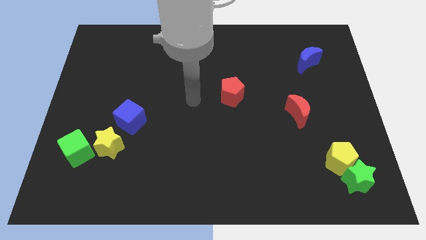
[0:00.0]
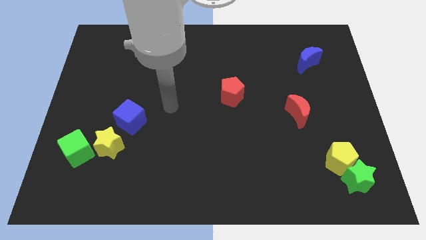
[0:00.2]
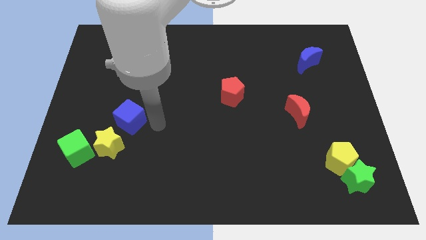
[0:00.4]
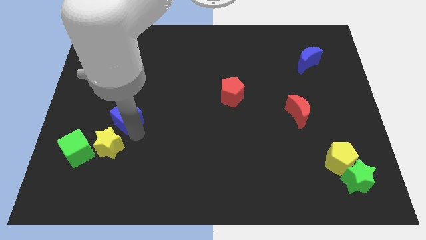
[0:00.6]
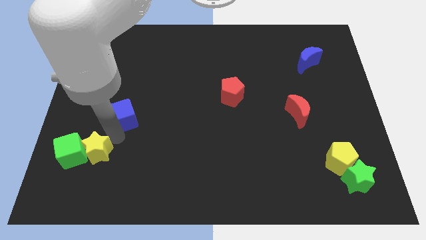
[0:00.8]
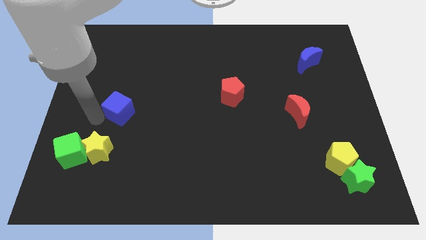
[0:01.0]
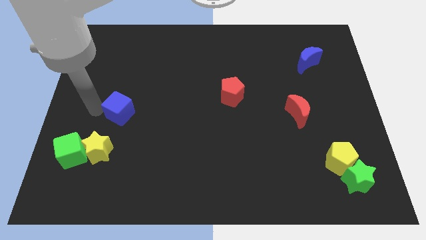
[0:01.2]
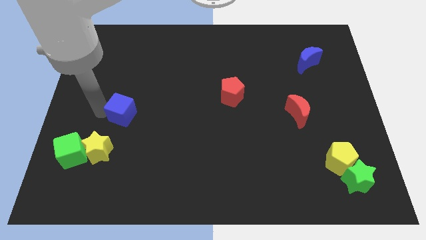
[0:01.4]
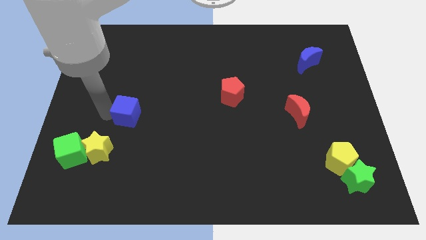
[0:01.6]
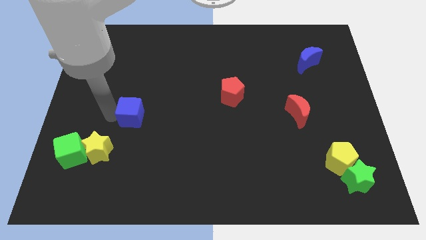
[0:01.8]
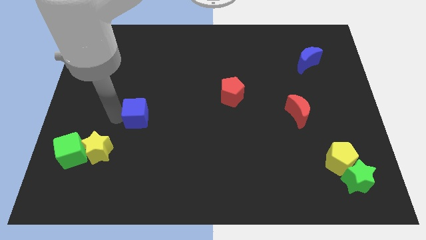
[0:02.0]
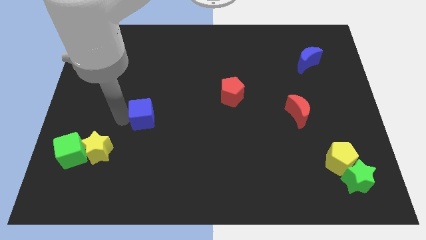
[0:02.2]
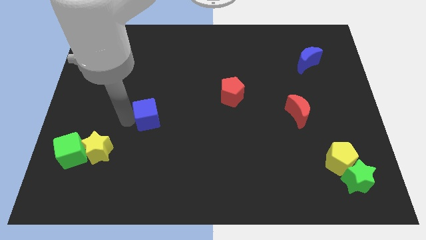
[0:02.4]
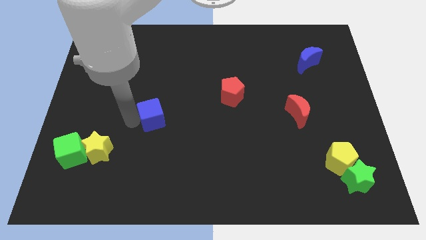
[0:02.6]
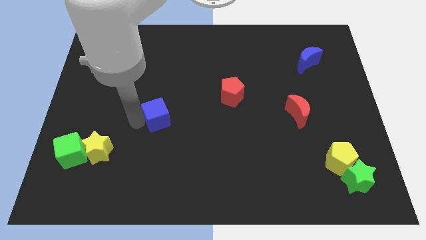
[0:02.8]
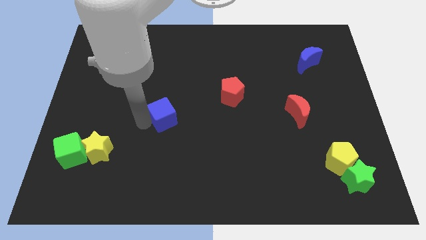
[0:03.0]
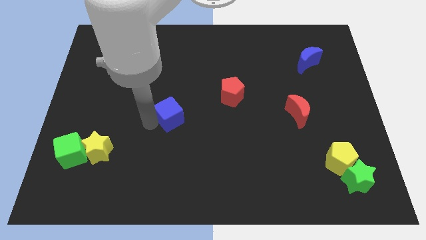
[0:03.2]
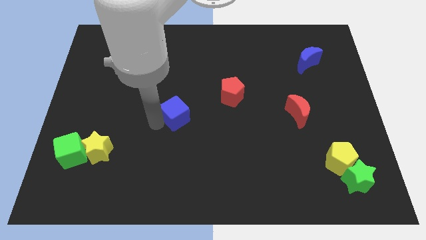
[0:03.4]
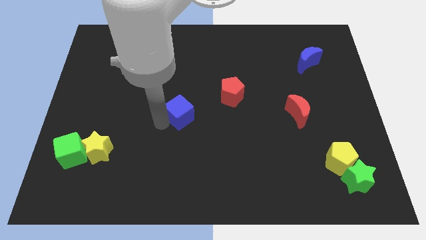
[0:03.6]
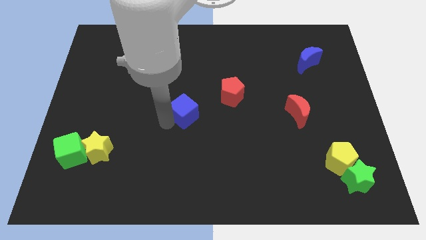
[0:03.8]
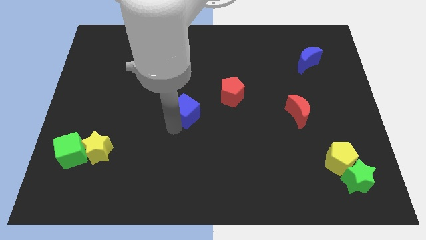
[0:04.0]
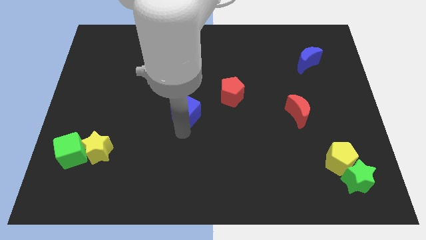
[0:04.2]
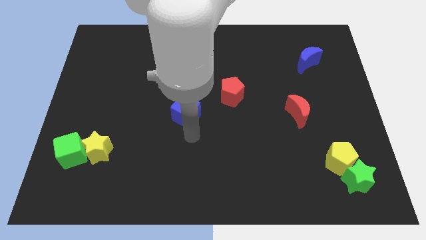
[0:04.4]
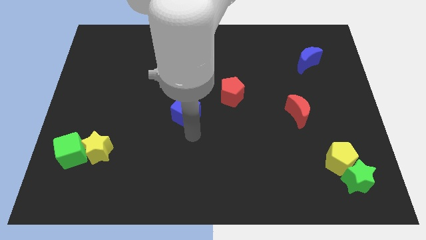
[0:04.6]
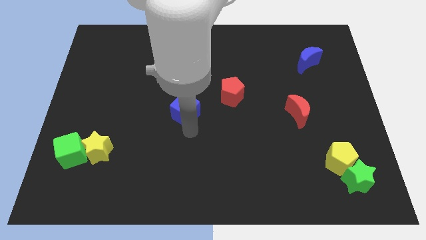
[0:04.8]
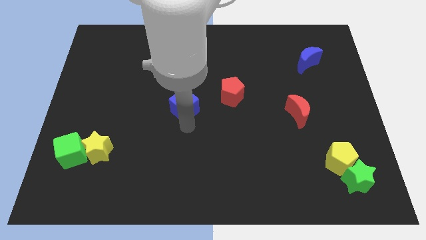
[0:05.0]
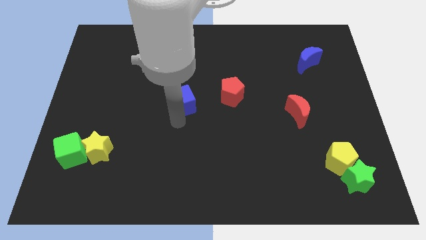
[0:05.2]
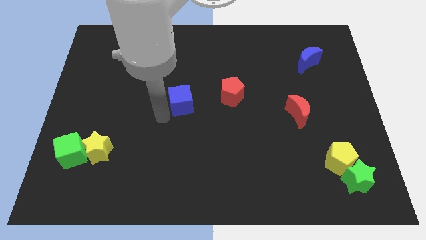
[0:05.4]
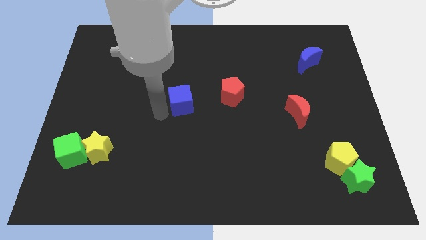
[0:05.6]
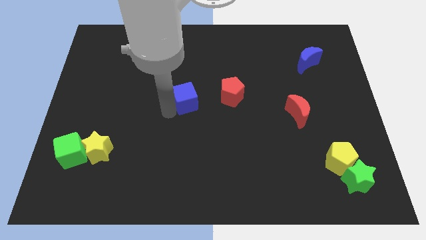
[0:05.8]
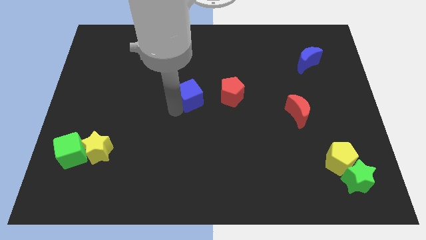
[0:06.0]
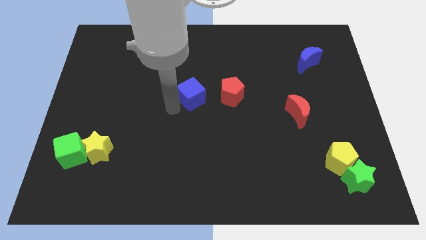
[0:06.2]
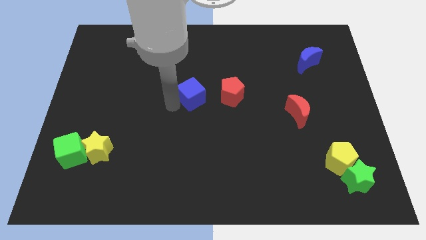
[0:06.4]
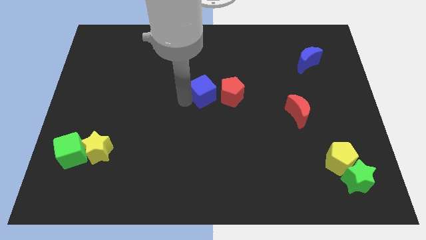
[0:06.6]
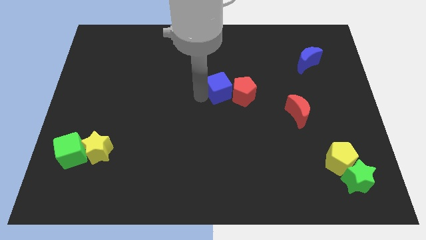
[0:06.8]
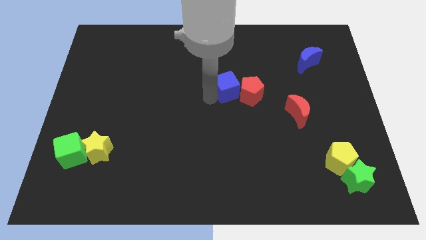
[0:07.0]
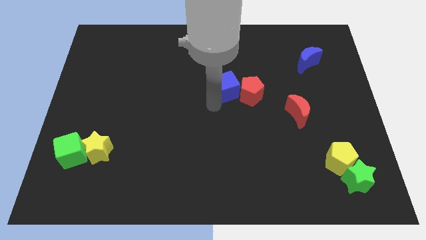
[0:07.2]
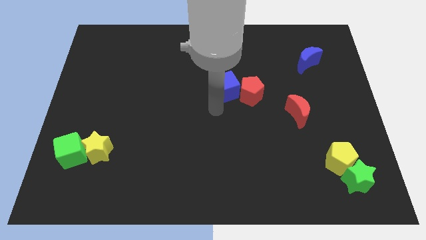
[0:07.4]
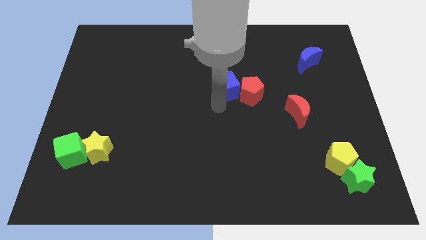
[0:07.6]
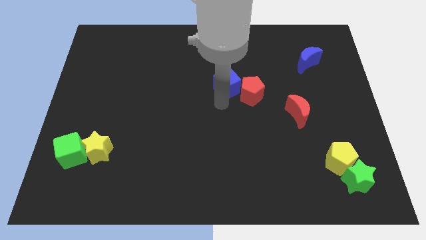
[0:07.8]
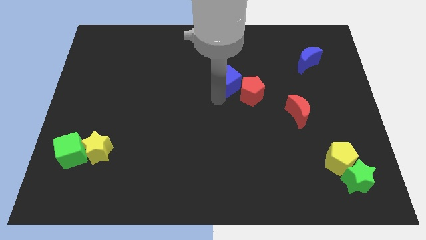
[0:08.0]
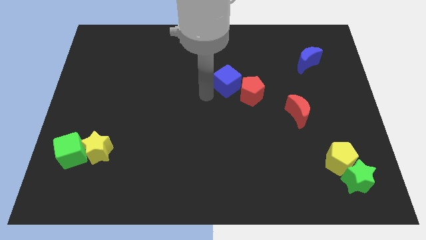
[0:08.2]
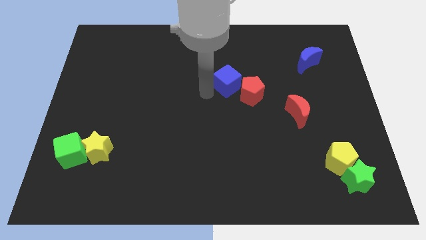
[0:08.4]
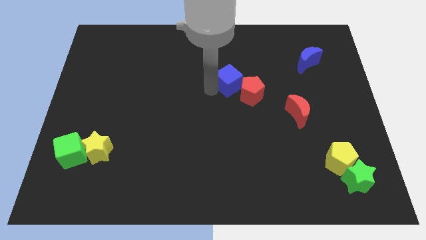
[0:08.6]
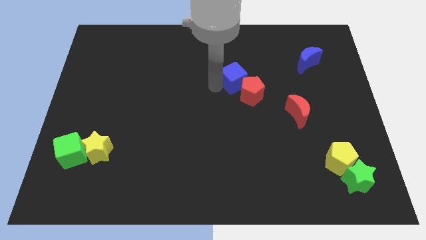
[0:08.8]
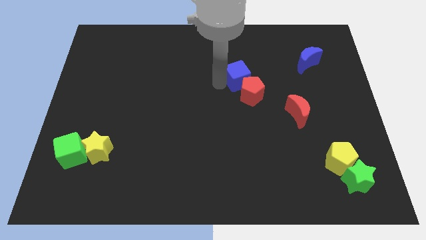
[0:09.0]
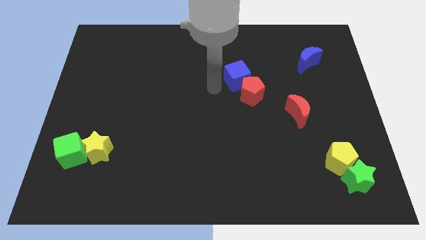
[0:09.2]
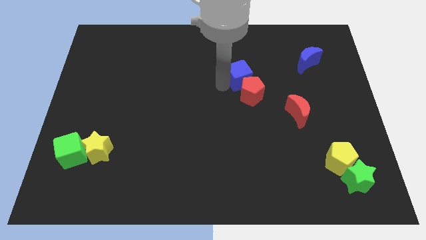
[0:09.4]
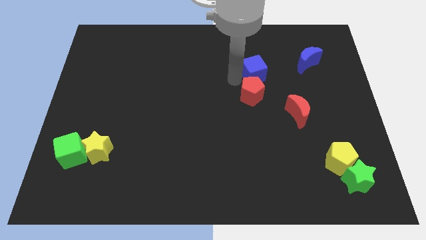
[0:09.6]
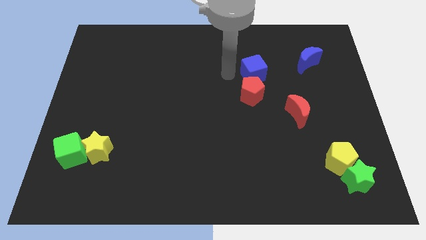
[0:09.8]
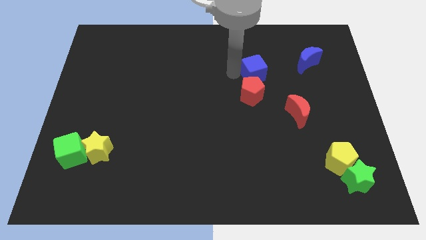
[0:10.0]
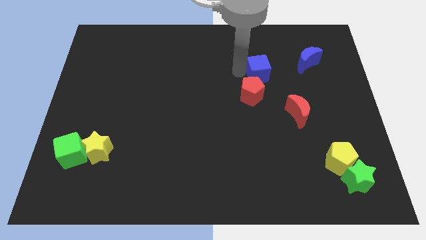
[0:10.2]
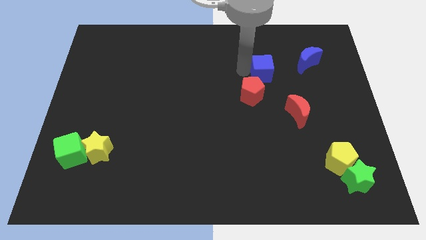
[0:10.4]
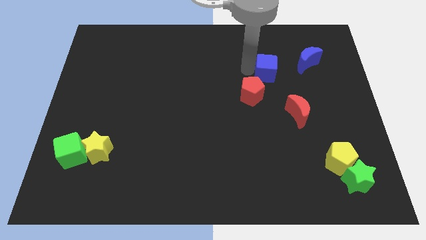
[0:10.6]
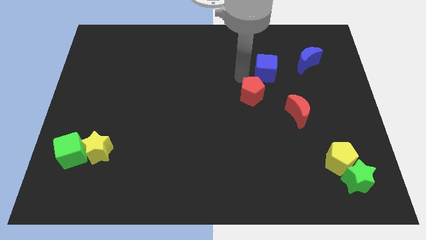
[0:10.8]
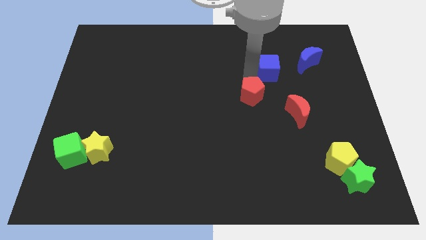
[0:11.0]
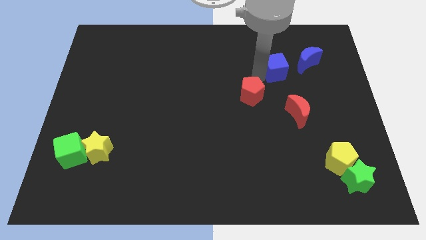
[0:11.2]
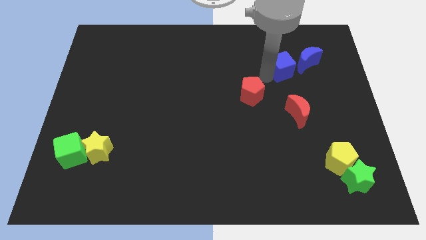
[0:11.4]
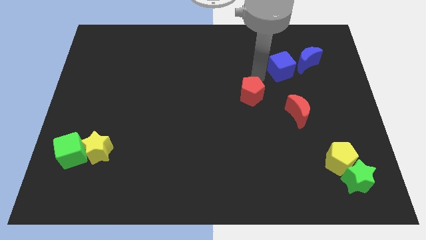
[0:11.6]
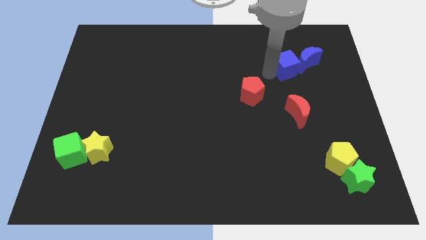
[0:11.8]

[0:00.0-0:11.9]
move the blue cube towards the blue moon

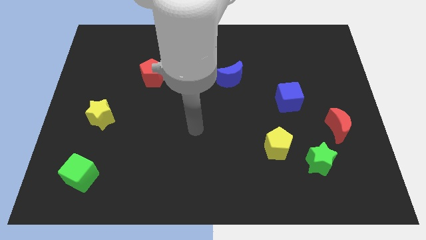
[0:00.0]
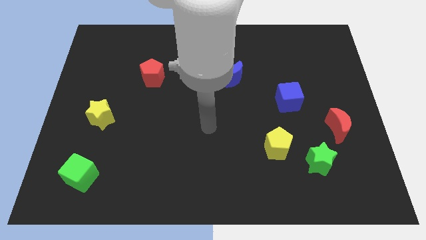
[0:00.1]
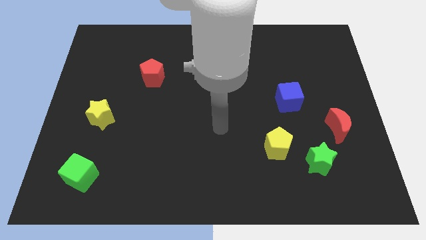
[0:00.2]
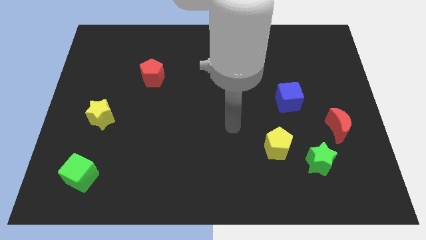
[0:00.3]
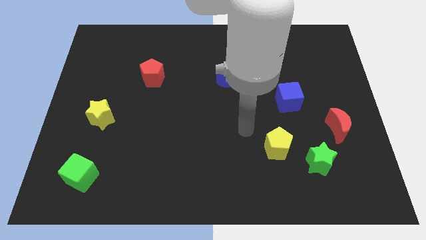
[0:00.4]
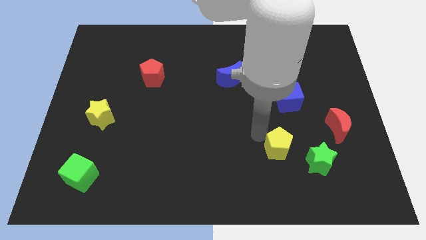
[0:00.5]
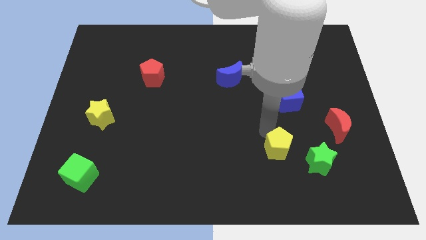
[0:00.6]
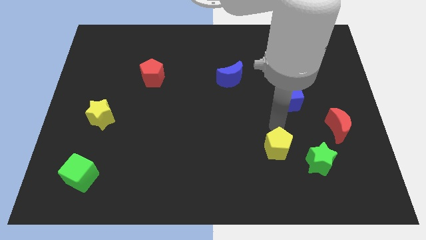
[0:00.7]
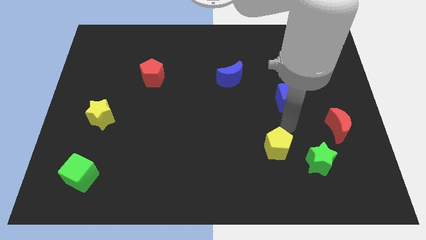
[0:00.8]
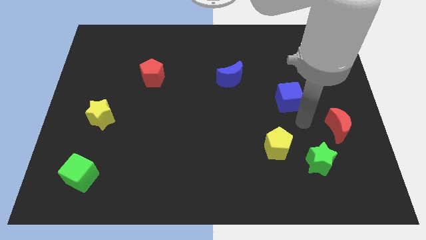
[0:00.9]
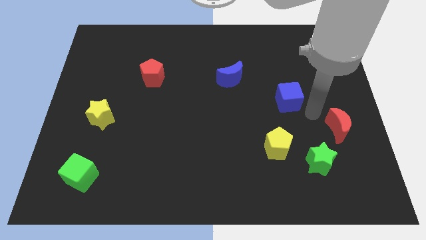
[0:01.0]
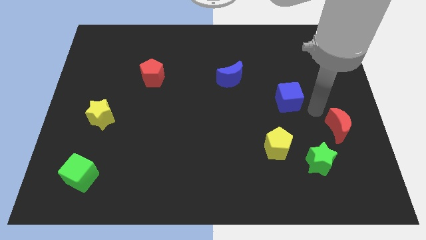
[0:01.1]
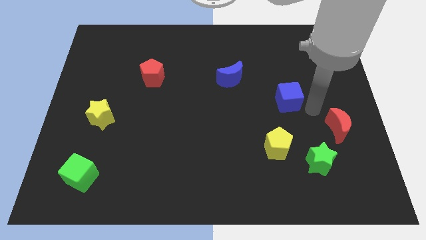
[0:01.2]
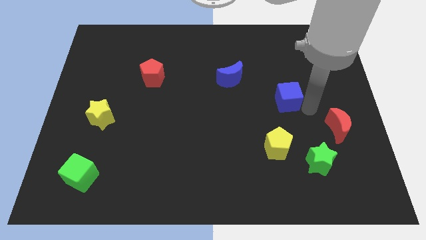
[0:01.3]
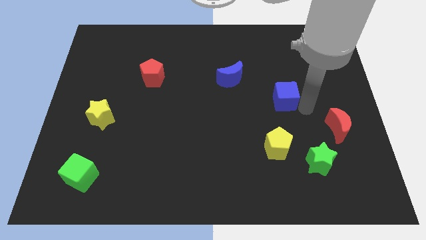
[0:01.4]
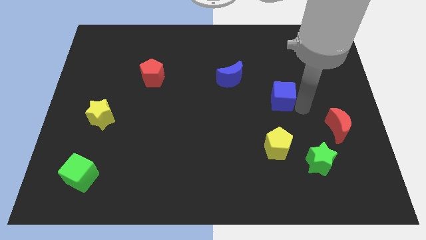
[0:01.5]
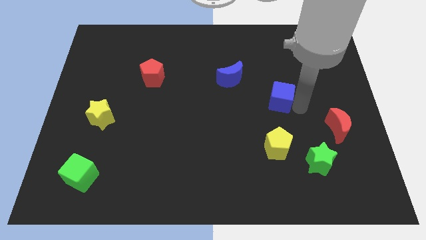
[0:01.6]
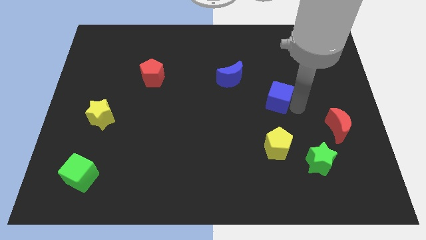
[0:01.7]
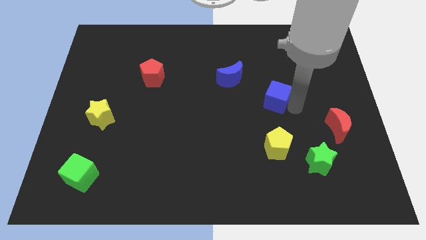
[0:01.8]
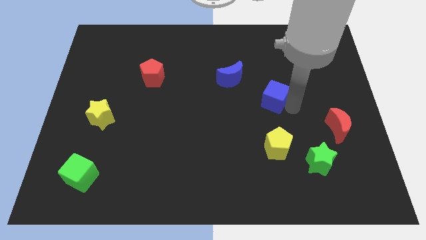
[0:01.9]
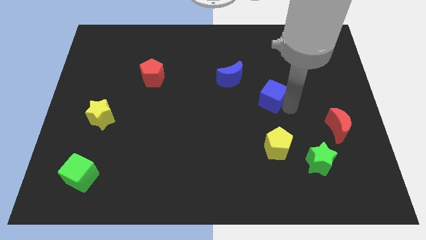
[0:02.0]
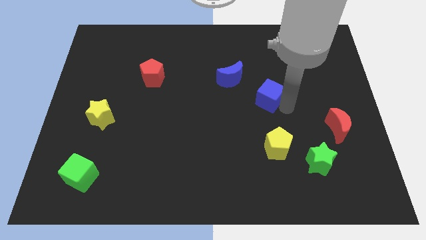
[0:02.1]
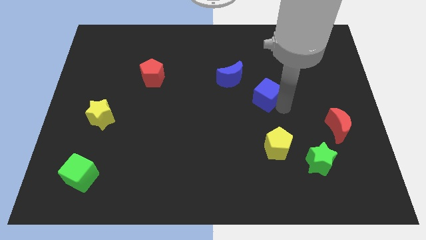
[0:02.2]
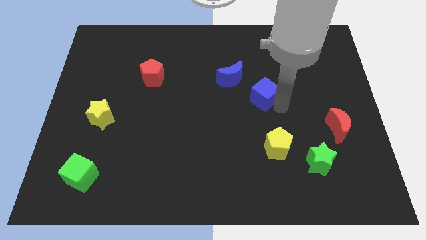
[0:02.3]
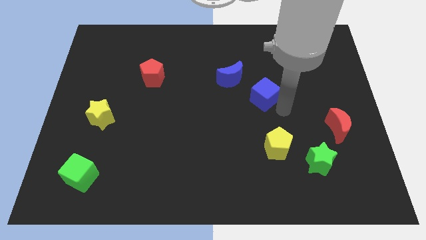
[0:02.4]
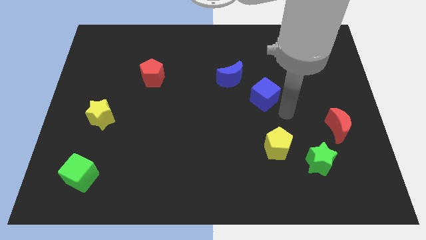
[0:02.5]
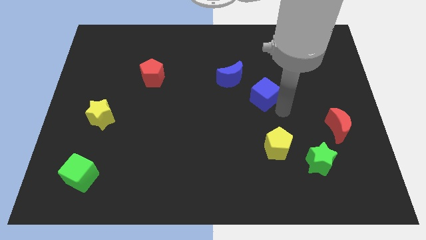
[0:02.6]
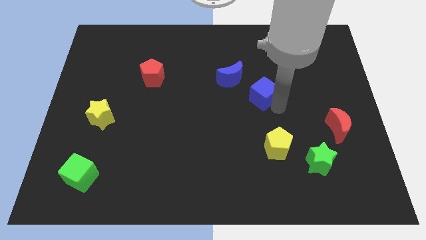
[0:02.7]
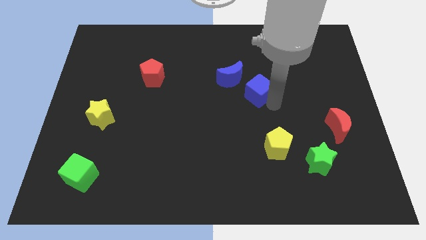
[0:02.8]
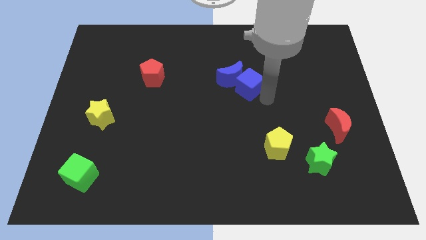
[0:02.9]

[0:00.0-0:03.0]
slide the blue cube towards the blue moon
